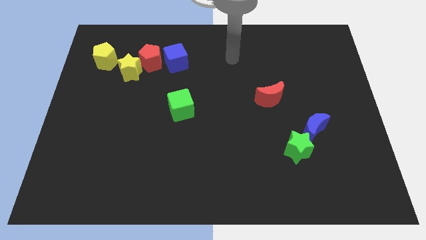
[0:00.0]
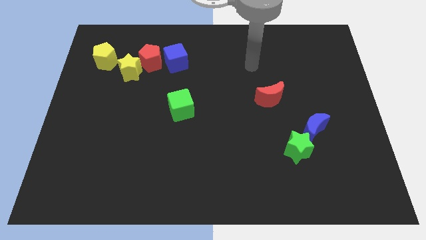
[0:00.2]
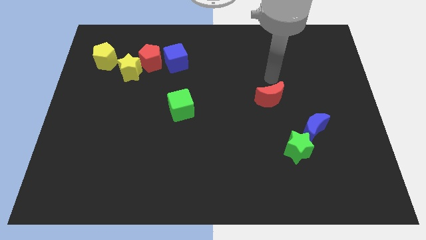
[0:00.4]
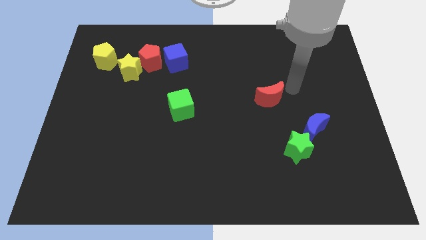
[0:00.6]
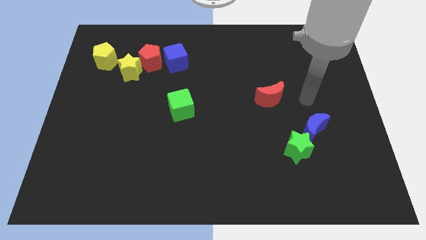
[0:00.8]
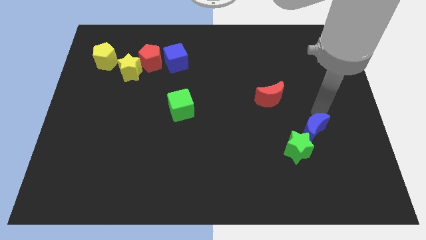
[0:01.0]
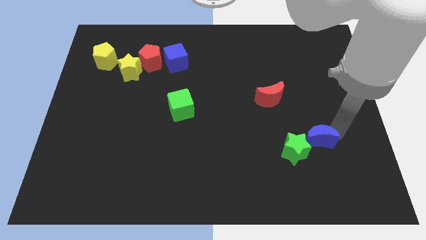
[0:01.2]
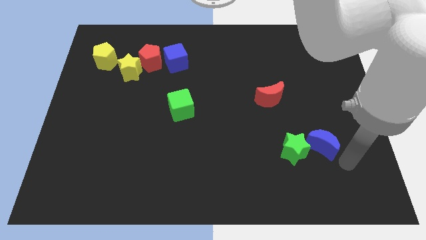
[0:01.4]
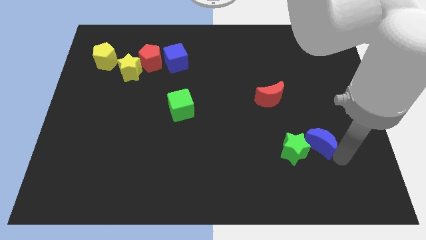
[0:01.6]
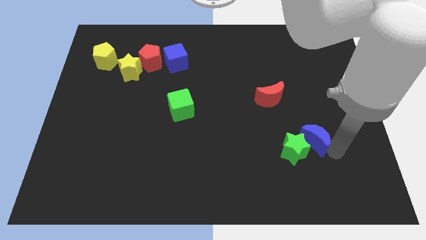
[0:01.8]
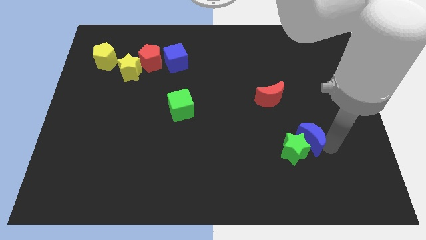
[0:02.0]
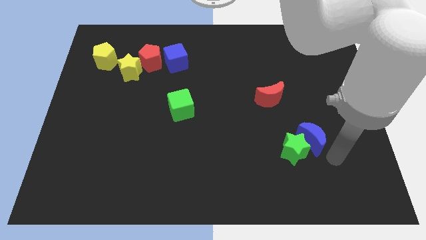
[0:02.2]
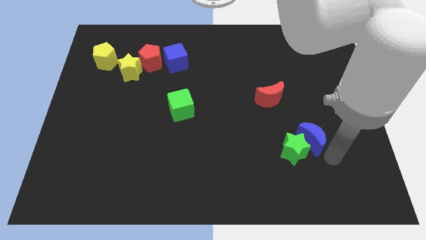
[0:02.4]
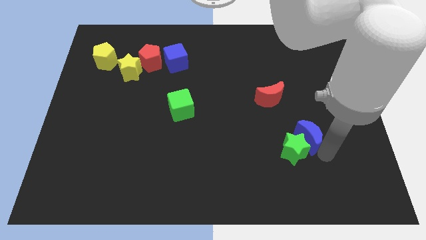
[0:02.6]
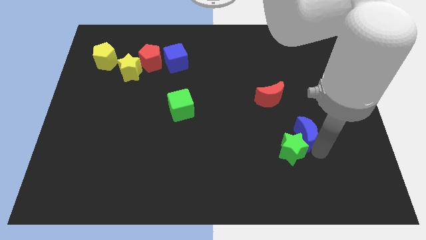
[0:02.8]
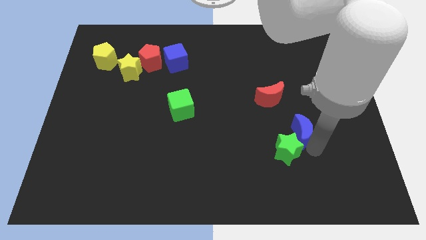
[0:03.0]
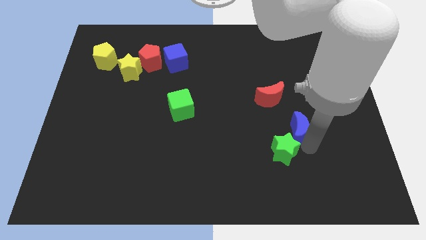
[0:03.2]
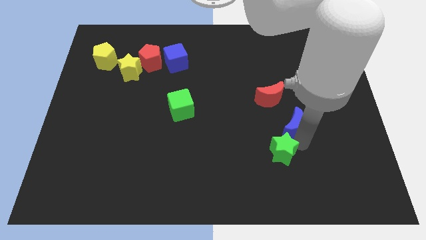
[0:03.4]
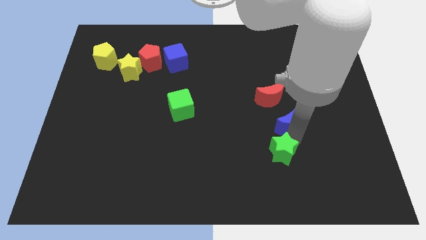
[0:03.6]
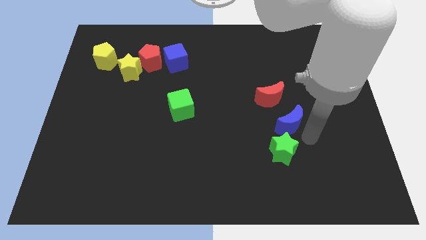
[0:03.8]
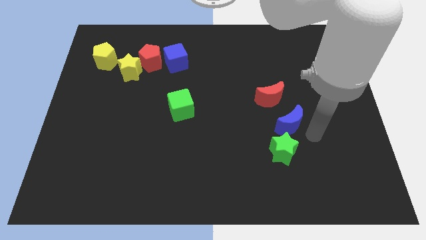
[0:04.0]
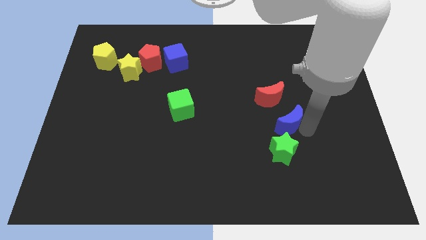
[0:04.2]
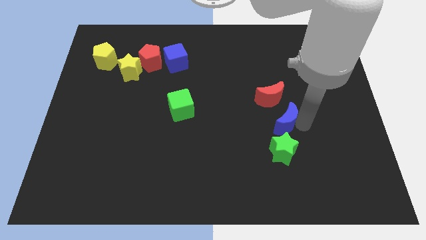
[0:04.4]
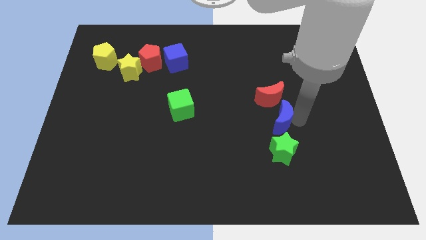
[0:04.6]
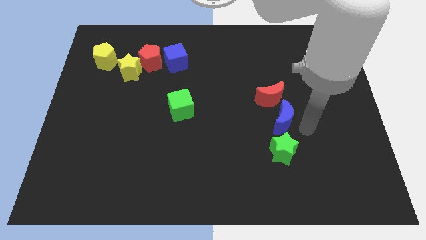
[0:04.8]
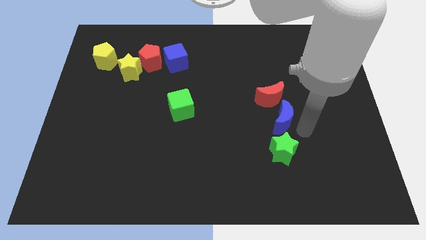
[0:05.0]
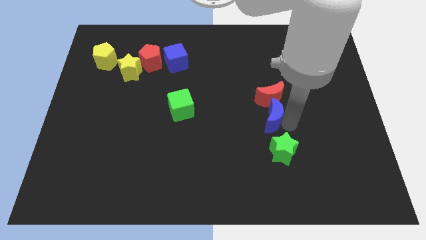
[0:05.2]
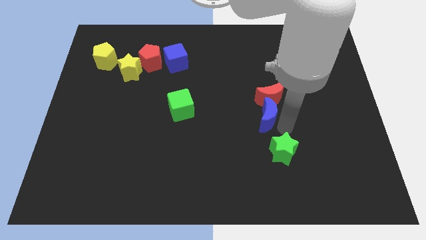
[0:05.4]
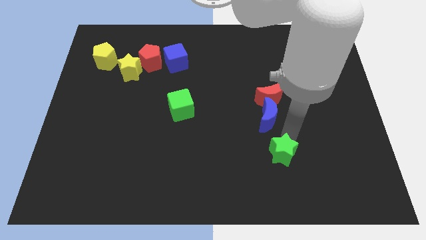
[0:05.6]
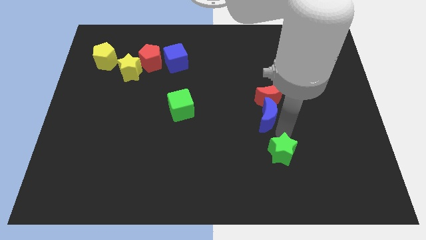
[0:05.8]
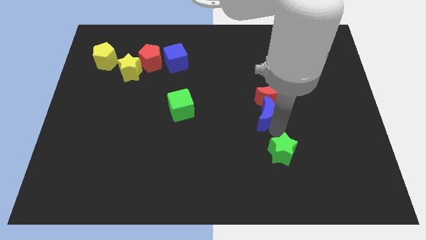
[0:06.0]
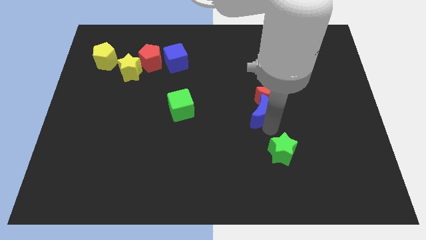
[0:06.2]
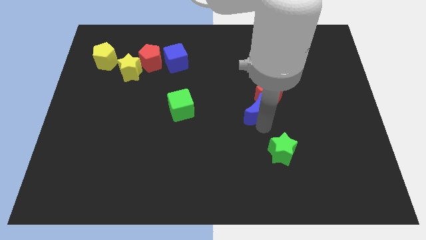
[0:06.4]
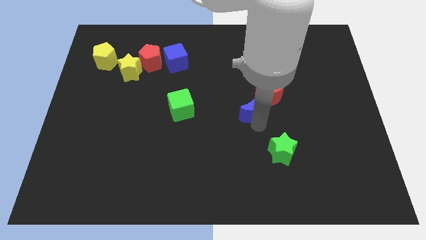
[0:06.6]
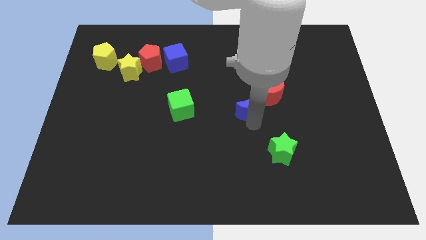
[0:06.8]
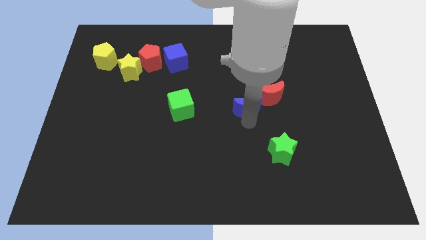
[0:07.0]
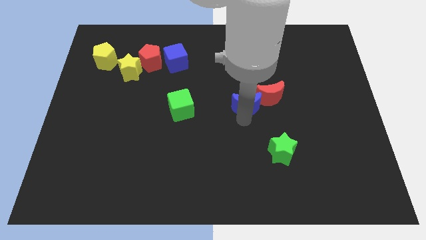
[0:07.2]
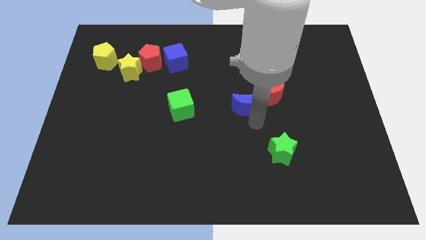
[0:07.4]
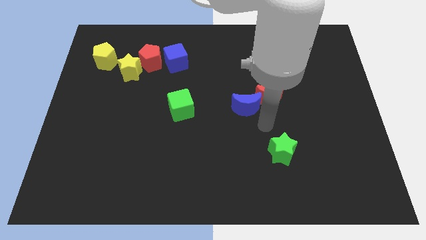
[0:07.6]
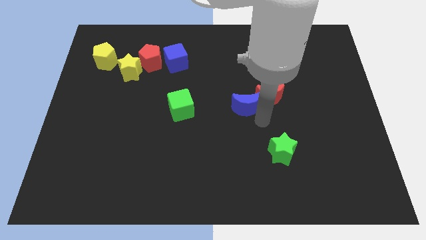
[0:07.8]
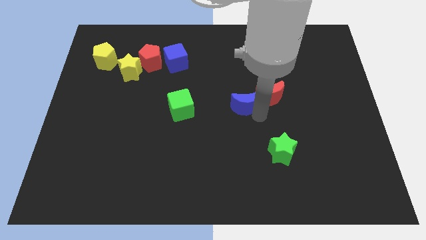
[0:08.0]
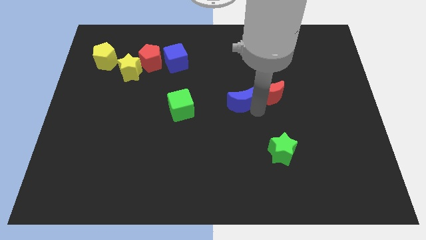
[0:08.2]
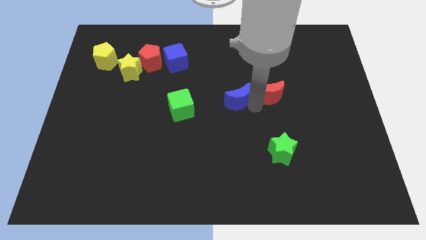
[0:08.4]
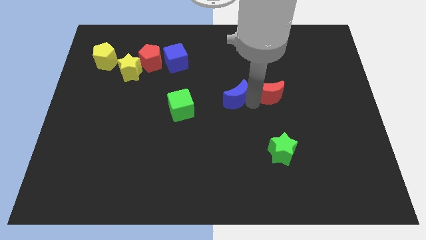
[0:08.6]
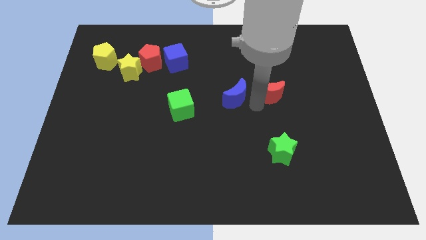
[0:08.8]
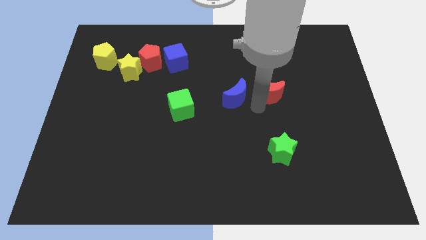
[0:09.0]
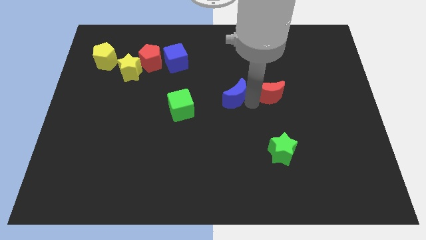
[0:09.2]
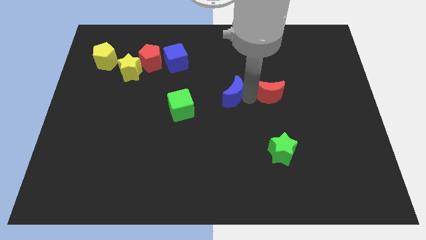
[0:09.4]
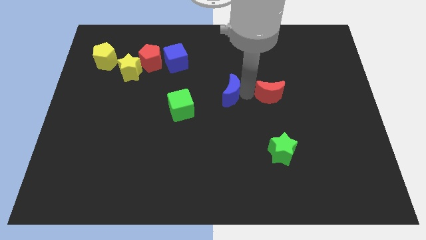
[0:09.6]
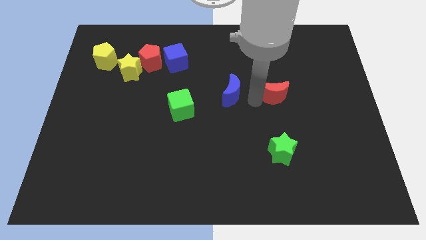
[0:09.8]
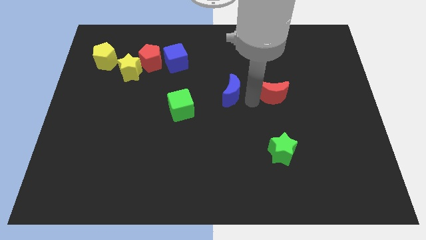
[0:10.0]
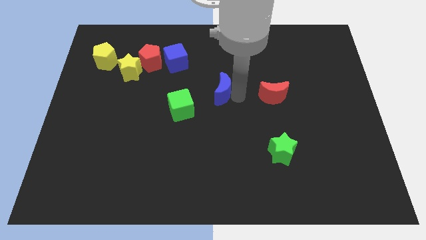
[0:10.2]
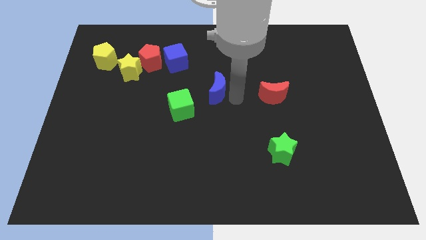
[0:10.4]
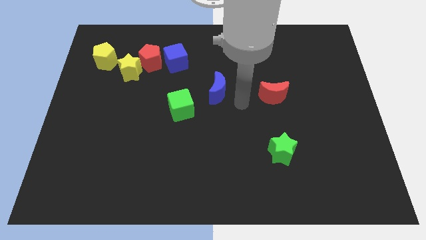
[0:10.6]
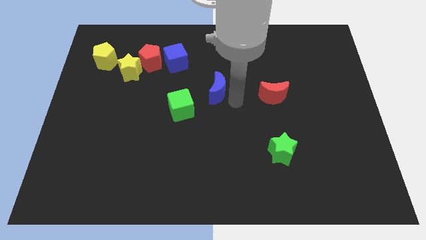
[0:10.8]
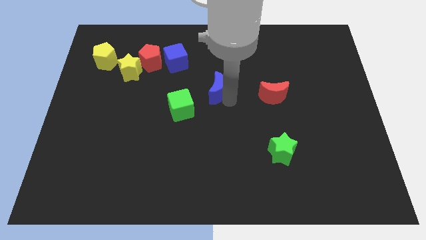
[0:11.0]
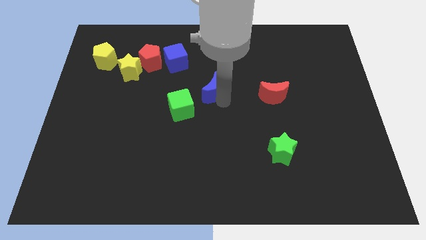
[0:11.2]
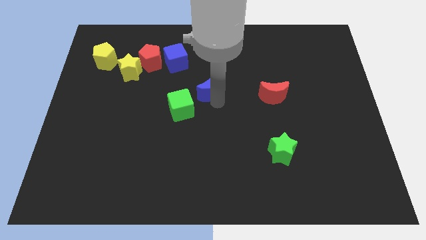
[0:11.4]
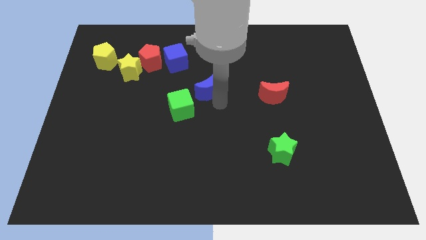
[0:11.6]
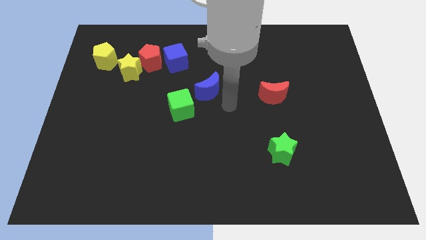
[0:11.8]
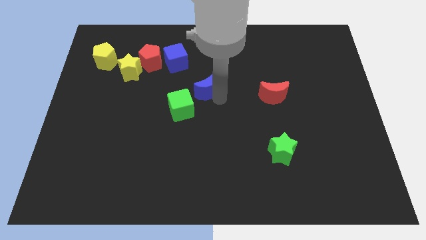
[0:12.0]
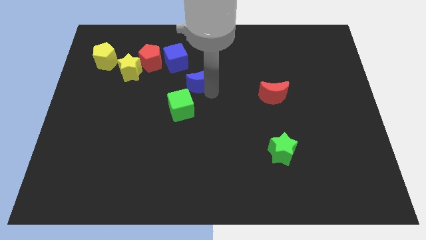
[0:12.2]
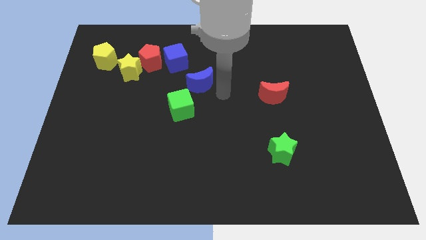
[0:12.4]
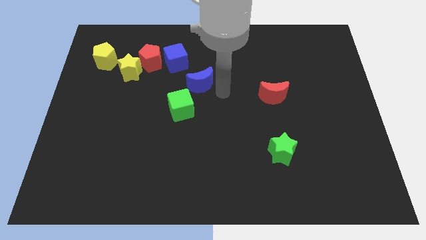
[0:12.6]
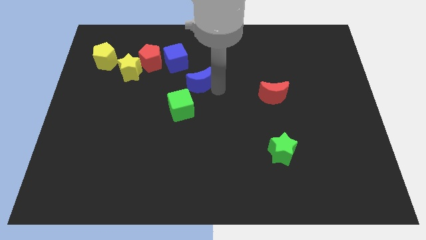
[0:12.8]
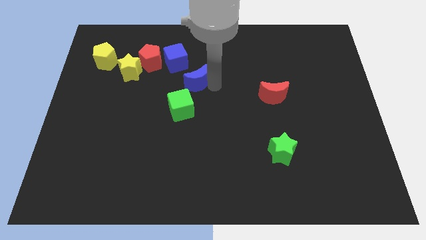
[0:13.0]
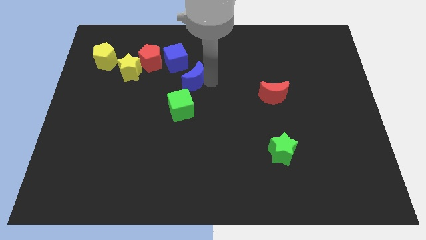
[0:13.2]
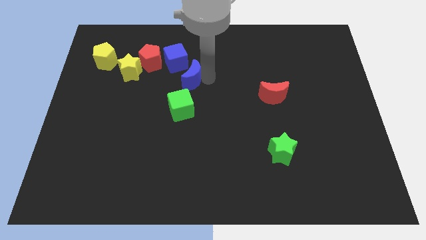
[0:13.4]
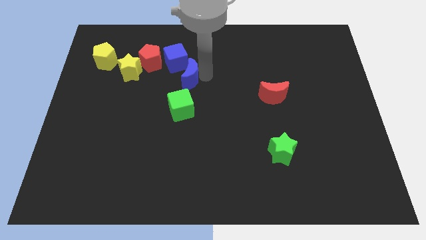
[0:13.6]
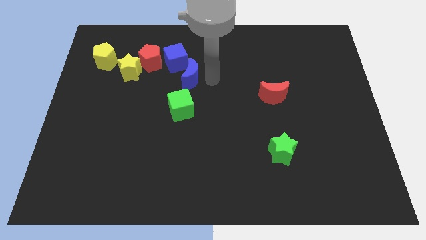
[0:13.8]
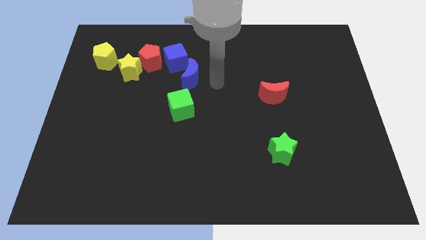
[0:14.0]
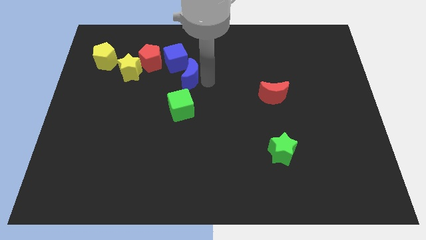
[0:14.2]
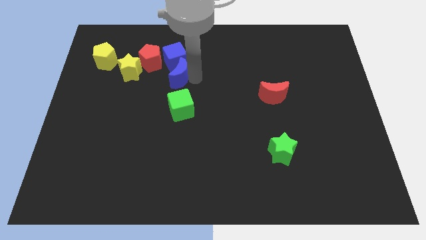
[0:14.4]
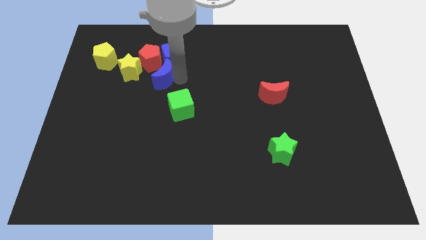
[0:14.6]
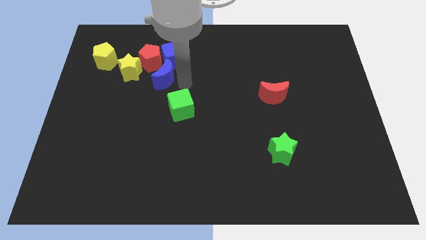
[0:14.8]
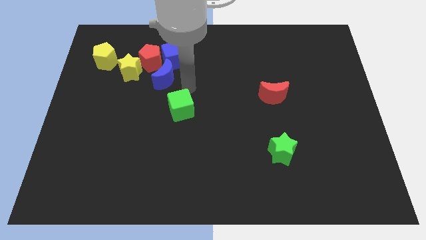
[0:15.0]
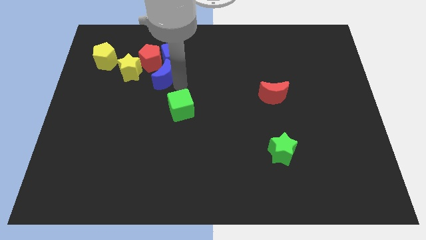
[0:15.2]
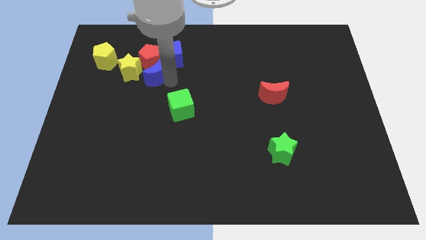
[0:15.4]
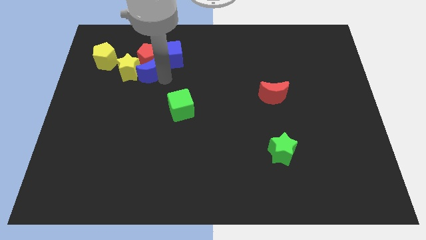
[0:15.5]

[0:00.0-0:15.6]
put the blue moon close to the yellow star
